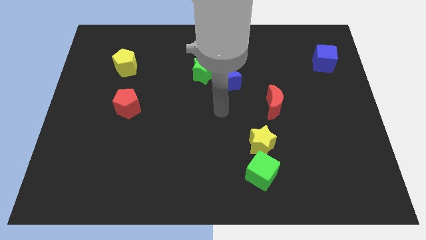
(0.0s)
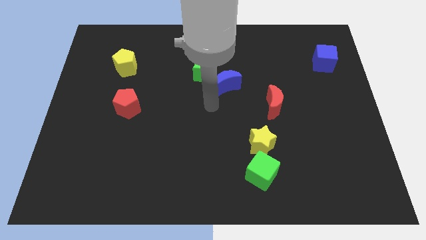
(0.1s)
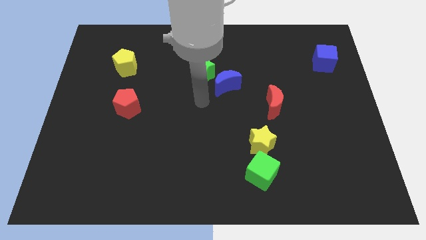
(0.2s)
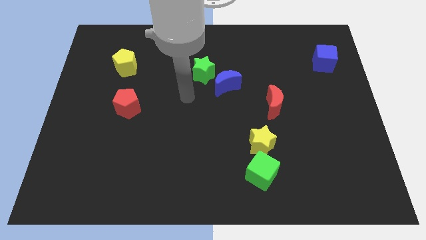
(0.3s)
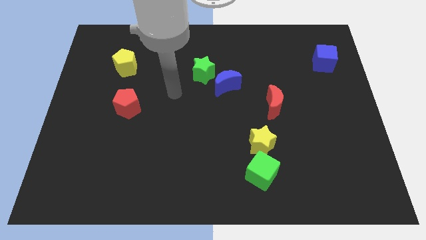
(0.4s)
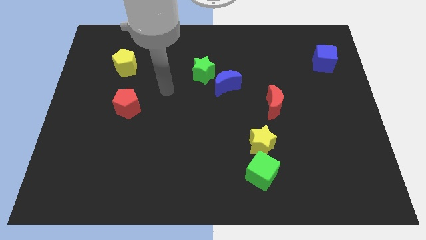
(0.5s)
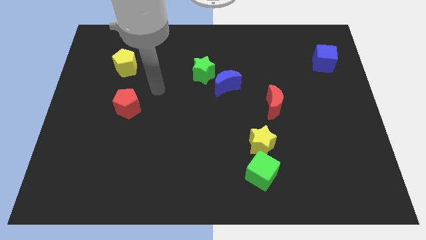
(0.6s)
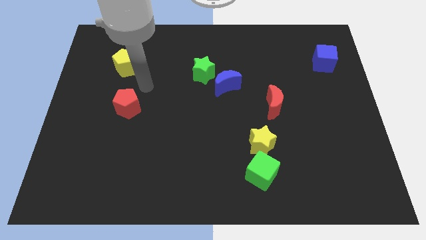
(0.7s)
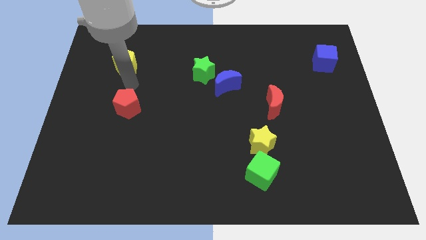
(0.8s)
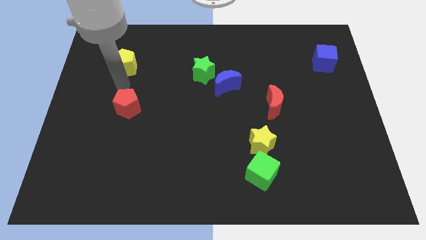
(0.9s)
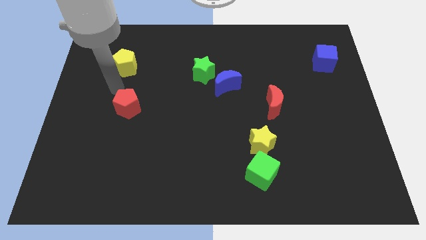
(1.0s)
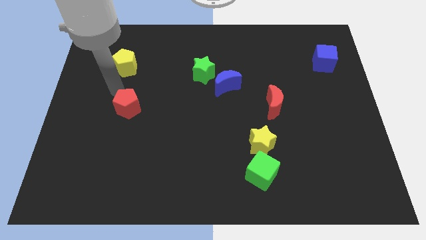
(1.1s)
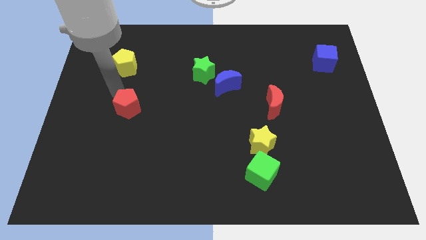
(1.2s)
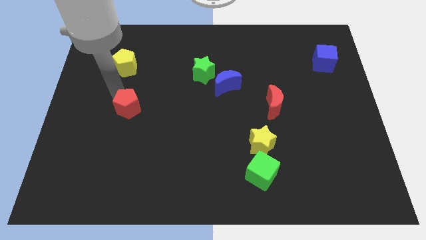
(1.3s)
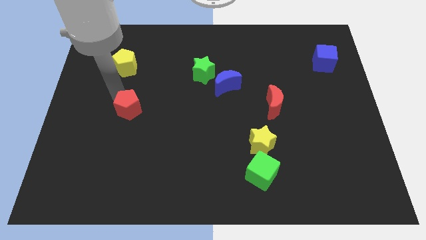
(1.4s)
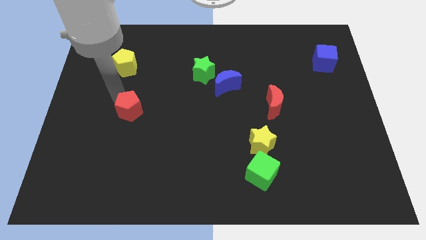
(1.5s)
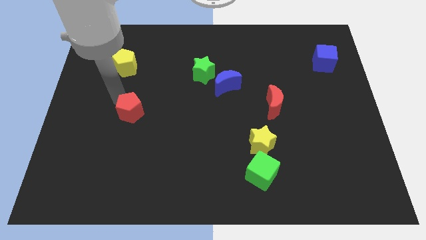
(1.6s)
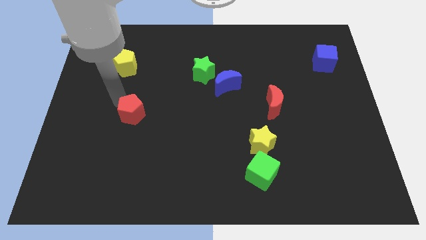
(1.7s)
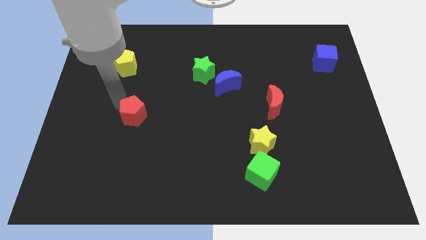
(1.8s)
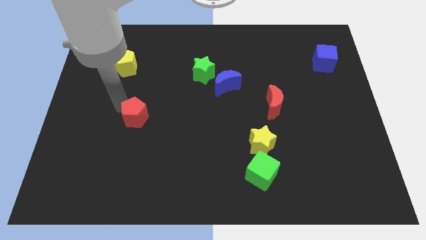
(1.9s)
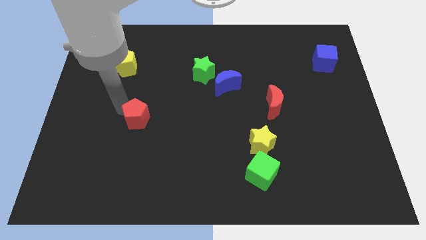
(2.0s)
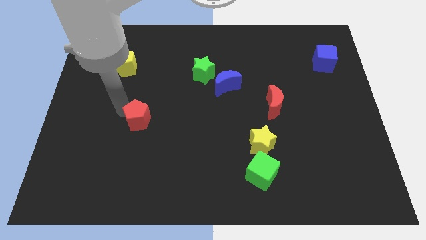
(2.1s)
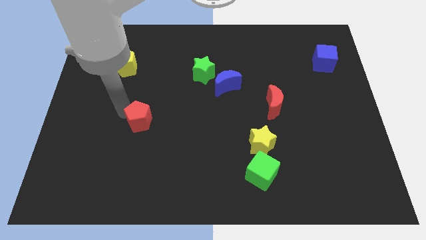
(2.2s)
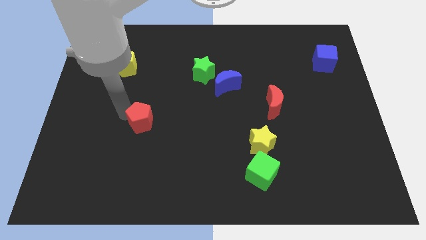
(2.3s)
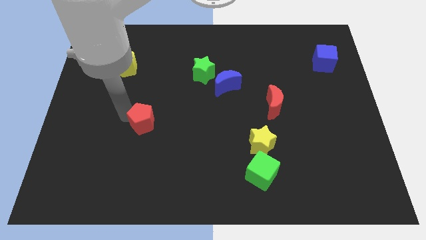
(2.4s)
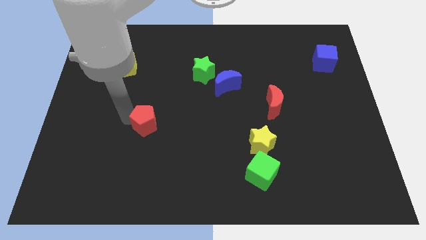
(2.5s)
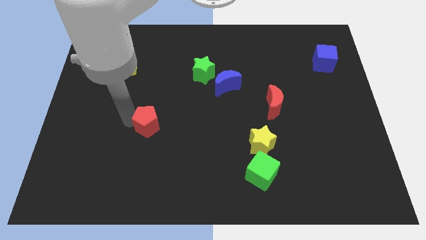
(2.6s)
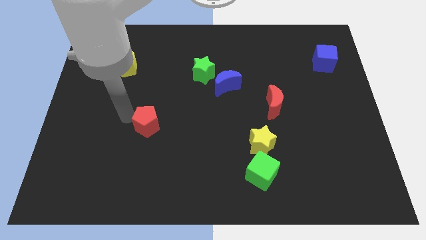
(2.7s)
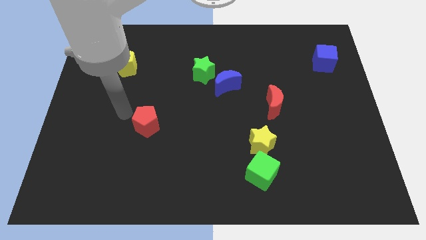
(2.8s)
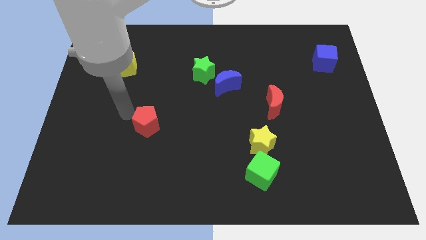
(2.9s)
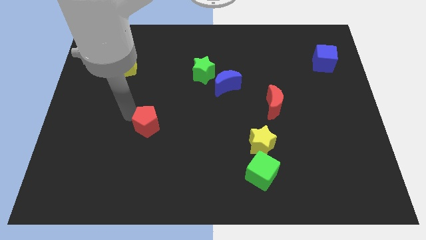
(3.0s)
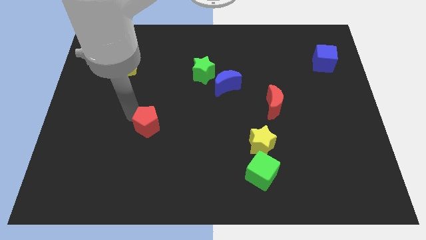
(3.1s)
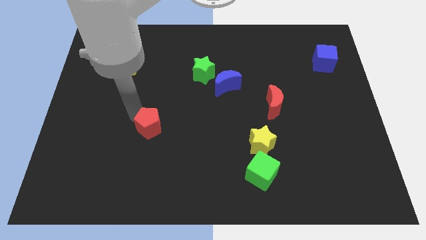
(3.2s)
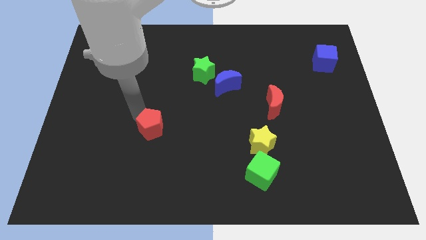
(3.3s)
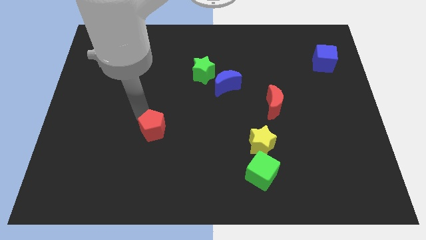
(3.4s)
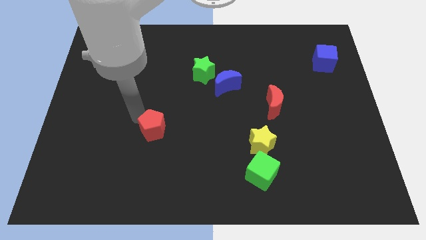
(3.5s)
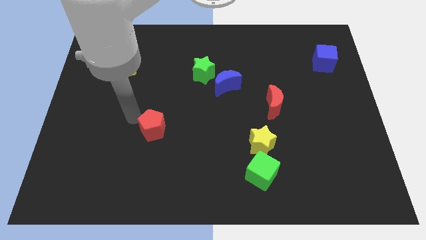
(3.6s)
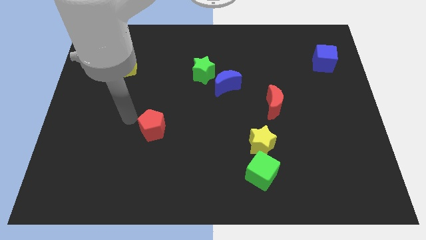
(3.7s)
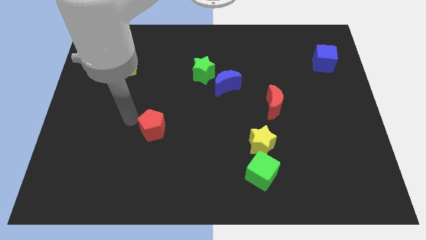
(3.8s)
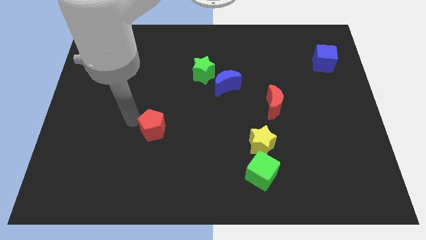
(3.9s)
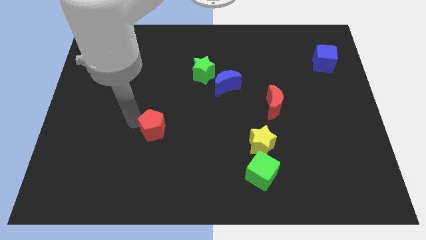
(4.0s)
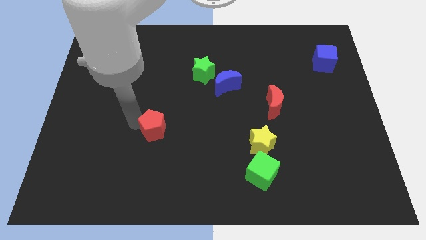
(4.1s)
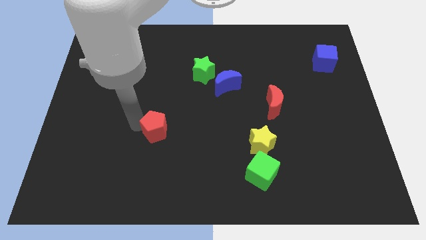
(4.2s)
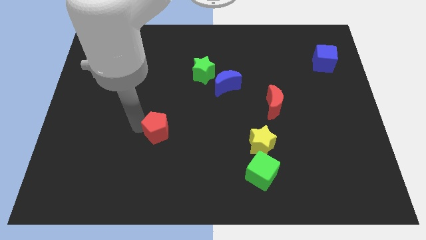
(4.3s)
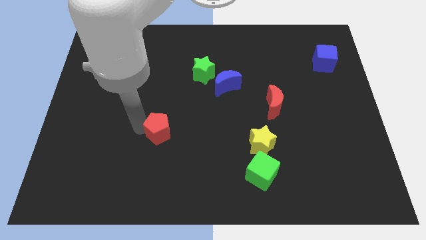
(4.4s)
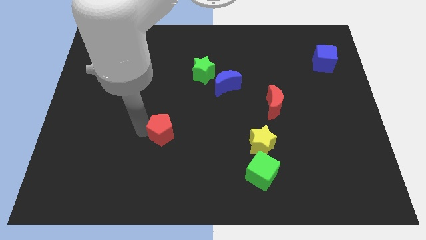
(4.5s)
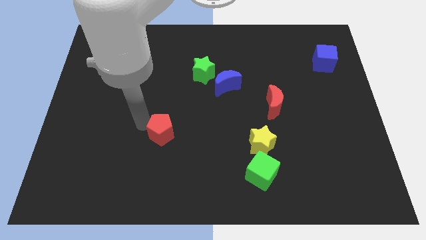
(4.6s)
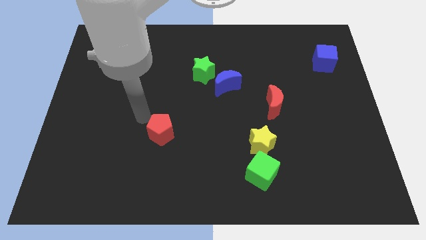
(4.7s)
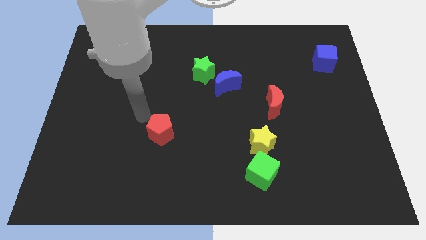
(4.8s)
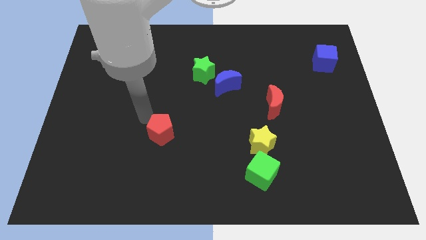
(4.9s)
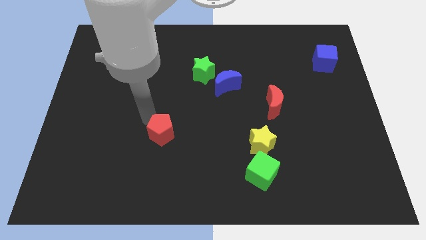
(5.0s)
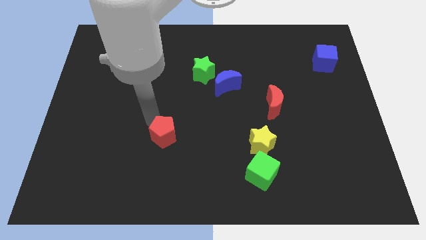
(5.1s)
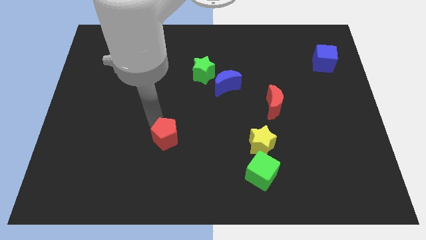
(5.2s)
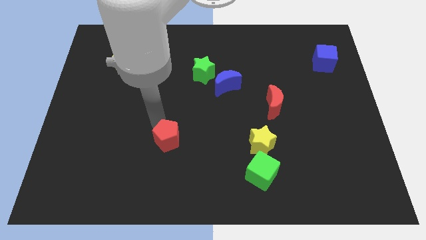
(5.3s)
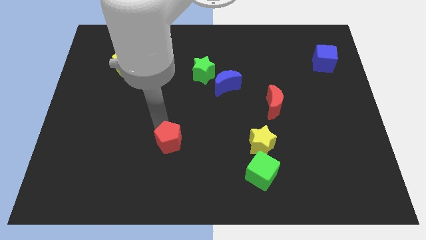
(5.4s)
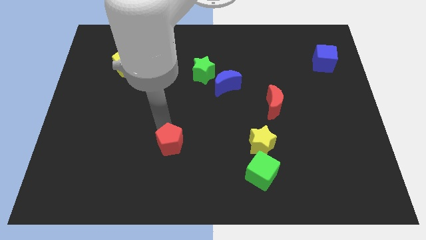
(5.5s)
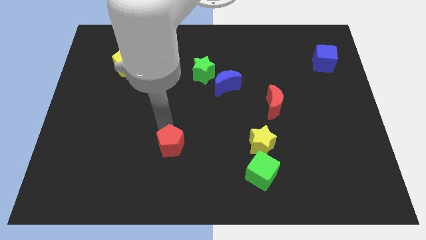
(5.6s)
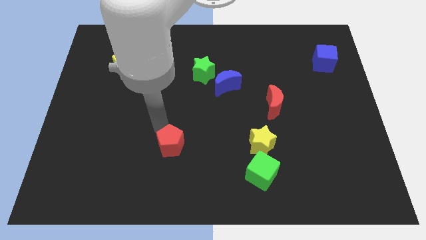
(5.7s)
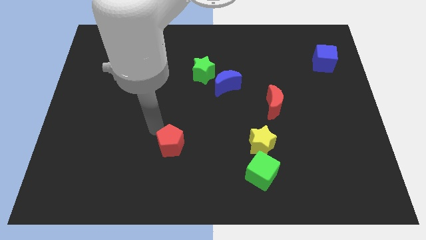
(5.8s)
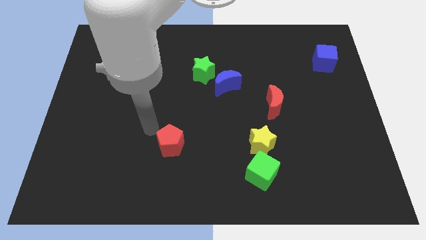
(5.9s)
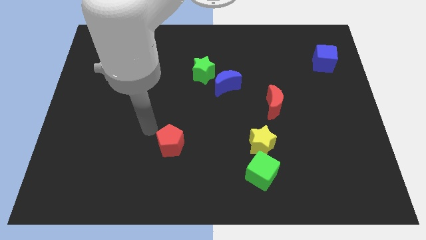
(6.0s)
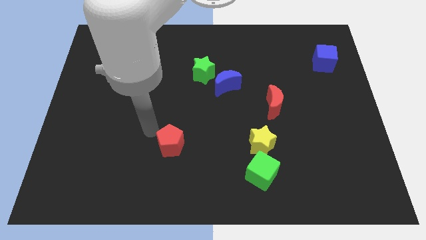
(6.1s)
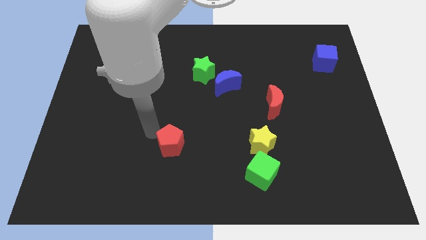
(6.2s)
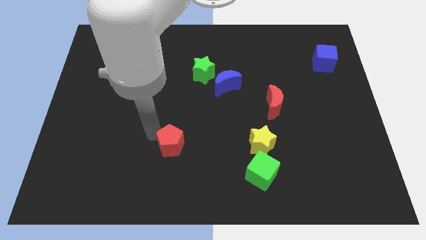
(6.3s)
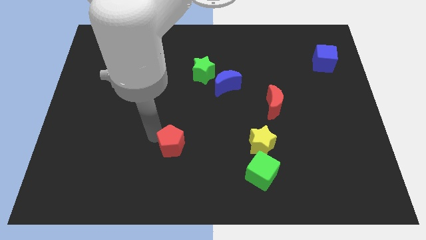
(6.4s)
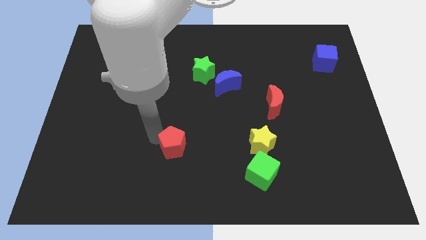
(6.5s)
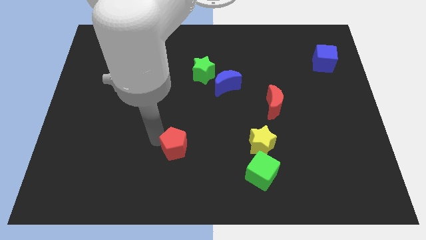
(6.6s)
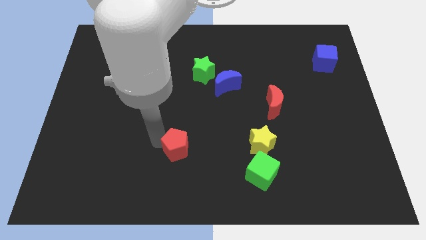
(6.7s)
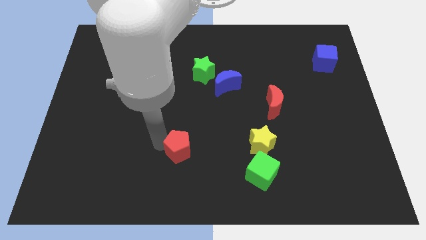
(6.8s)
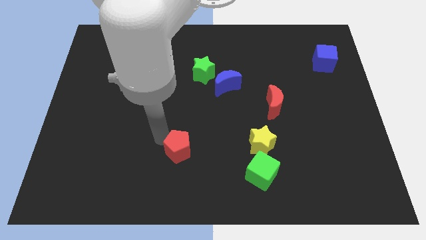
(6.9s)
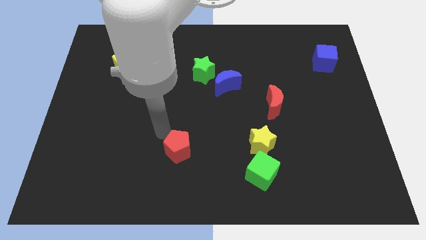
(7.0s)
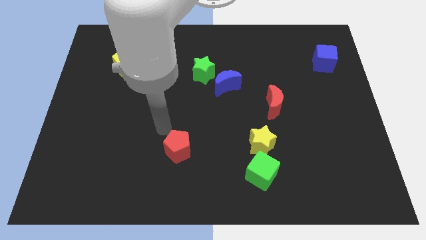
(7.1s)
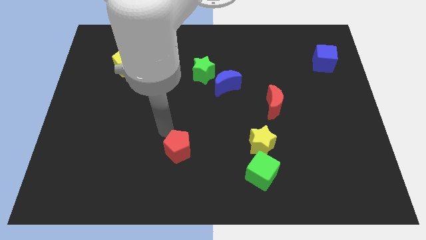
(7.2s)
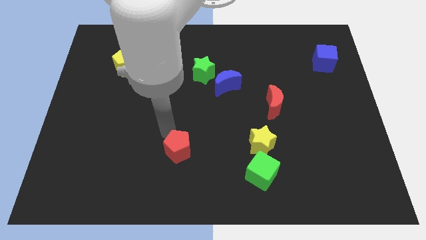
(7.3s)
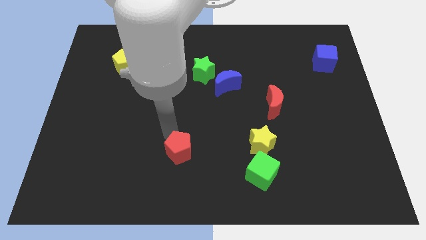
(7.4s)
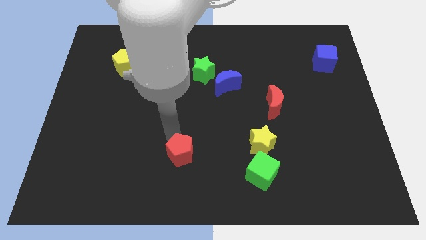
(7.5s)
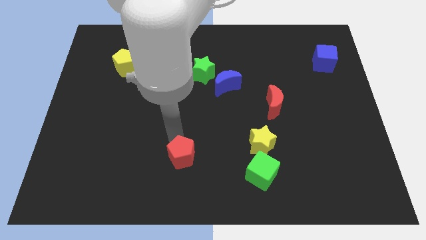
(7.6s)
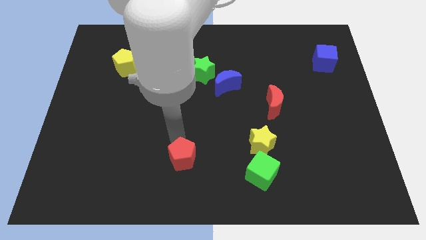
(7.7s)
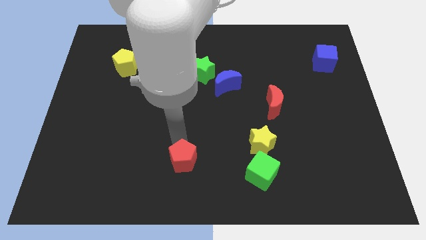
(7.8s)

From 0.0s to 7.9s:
put the red pentagon to the bottom side
